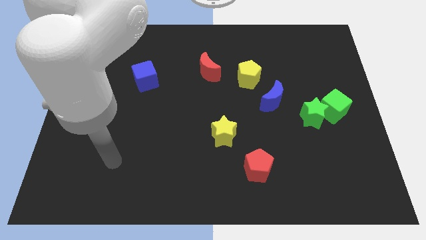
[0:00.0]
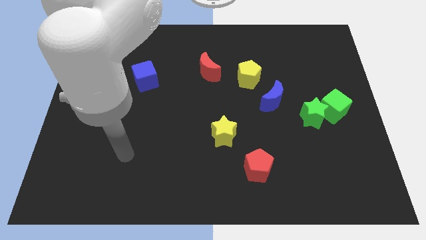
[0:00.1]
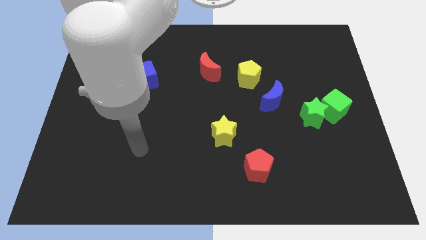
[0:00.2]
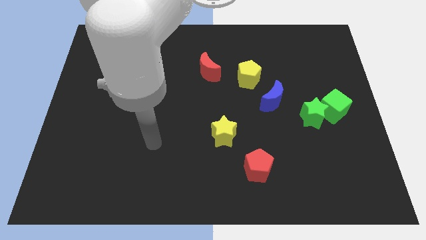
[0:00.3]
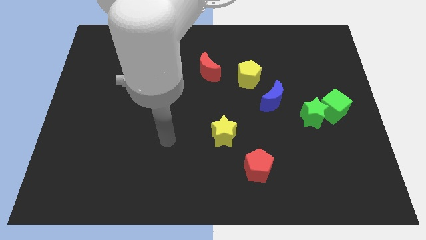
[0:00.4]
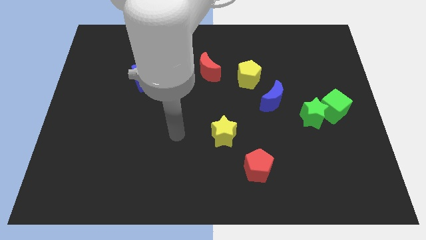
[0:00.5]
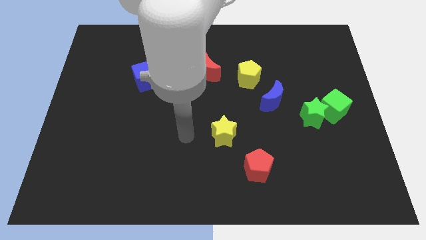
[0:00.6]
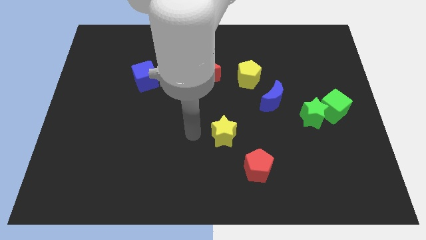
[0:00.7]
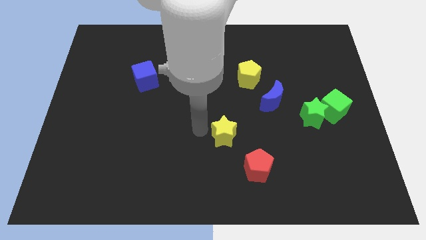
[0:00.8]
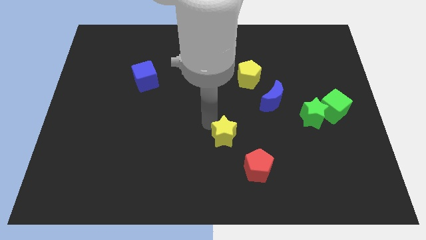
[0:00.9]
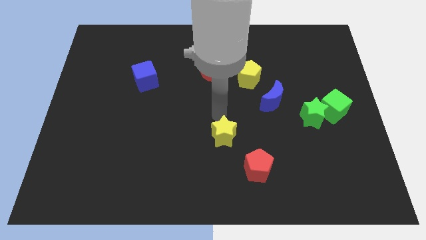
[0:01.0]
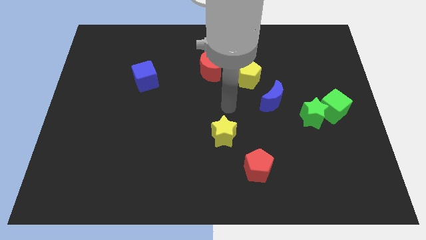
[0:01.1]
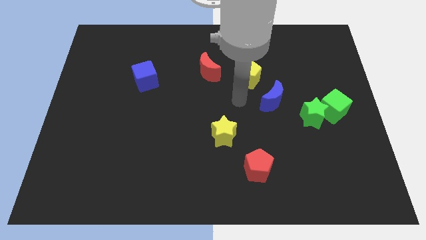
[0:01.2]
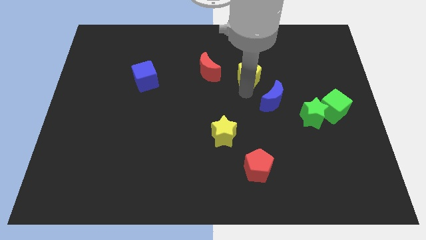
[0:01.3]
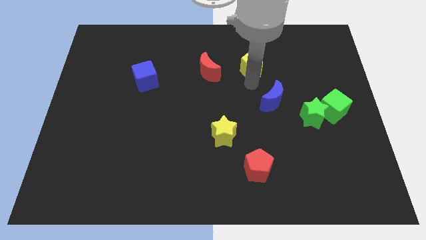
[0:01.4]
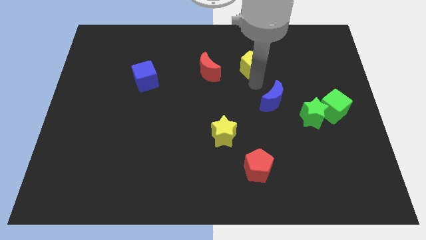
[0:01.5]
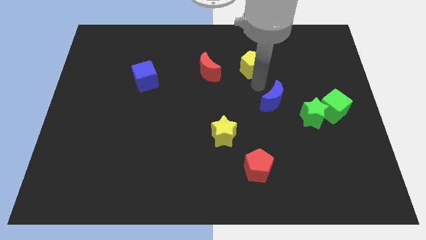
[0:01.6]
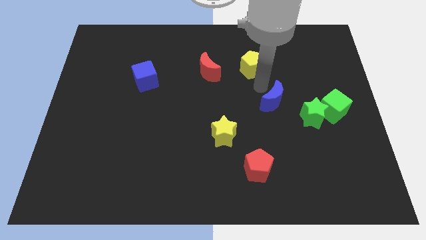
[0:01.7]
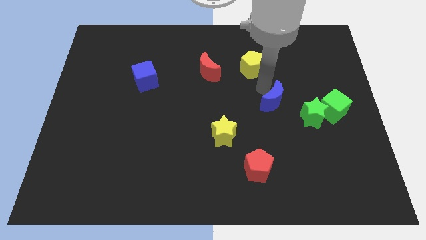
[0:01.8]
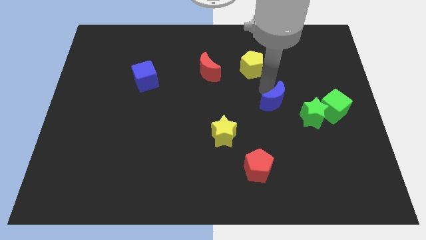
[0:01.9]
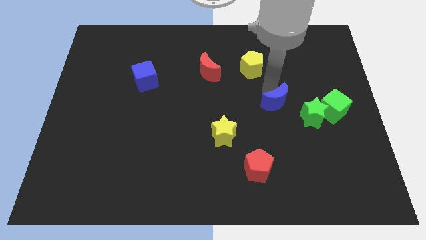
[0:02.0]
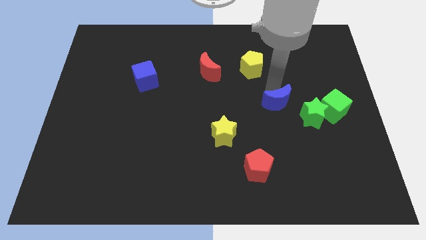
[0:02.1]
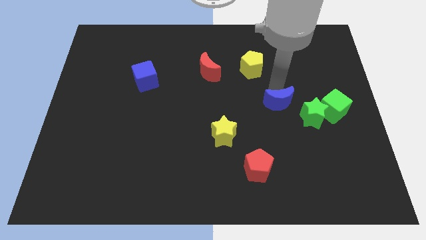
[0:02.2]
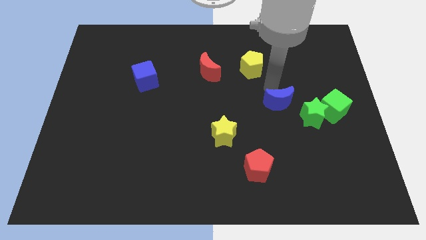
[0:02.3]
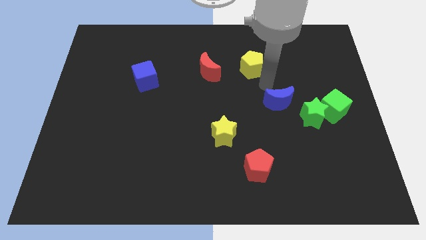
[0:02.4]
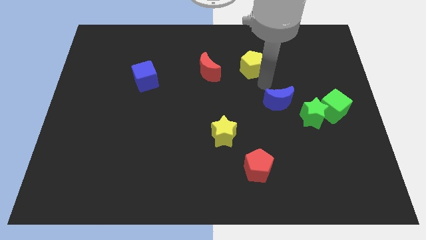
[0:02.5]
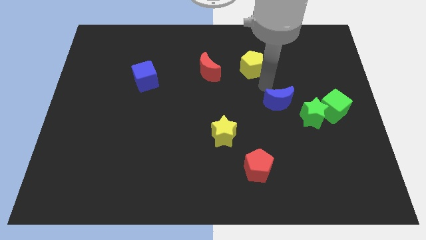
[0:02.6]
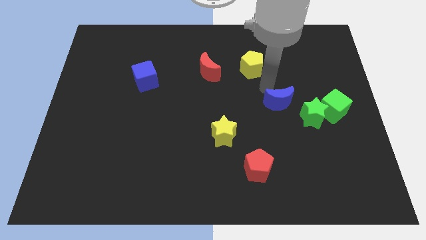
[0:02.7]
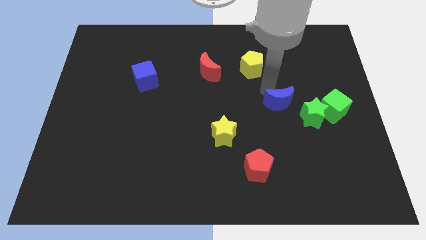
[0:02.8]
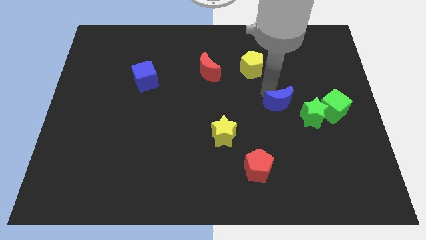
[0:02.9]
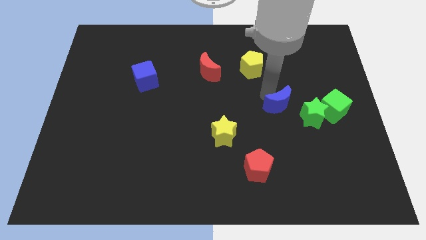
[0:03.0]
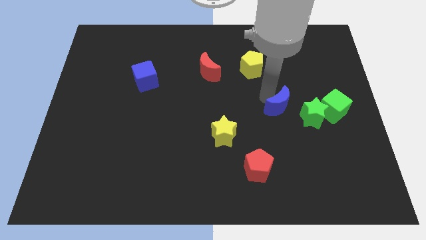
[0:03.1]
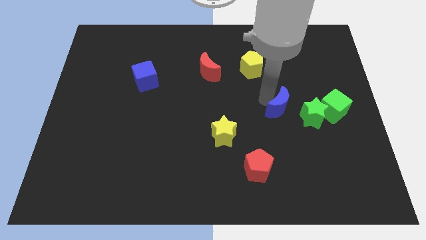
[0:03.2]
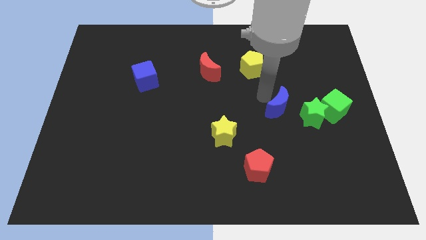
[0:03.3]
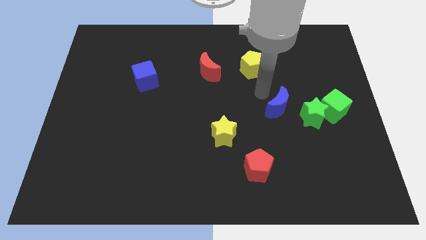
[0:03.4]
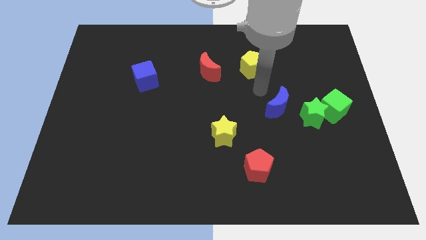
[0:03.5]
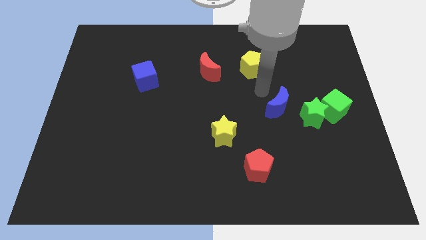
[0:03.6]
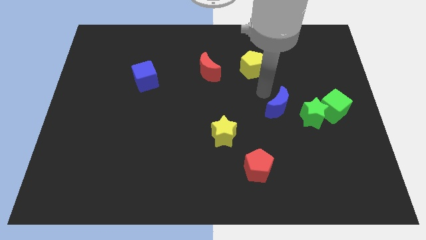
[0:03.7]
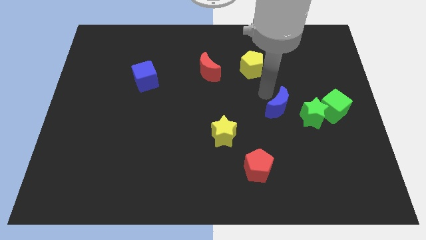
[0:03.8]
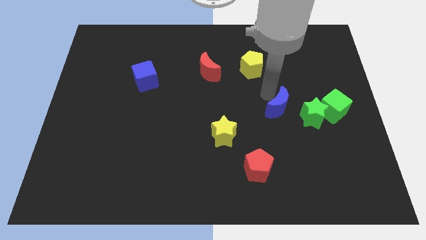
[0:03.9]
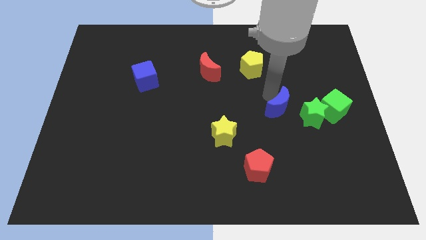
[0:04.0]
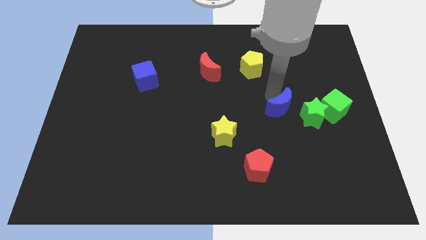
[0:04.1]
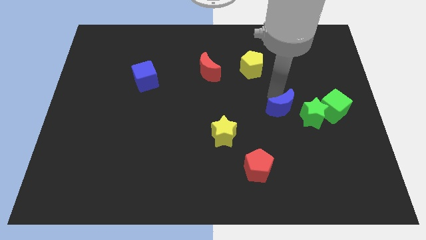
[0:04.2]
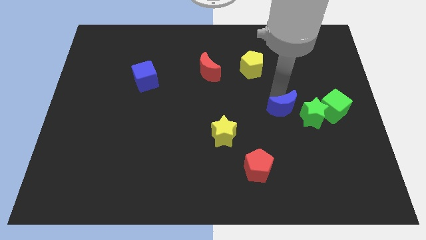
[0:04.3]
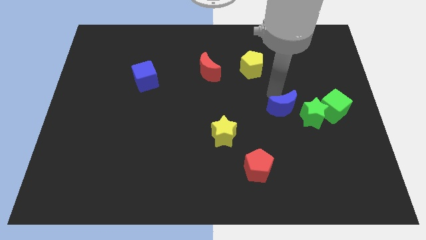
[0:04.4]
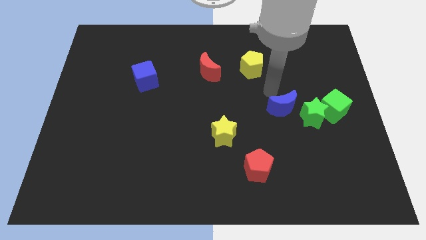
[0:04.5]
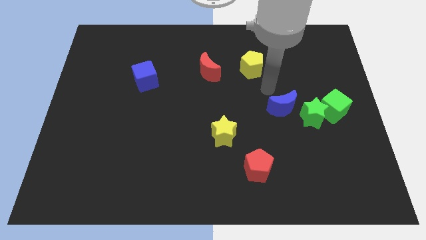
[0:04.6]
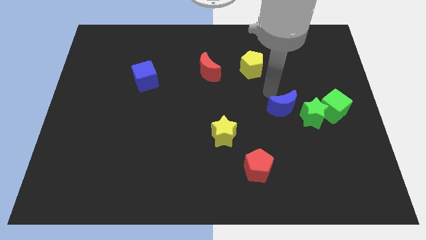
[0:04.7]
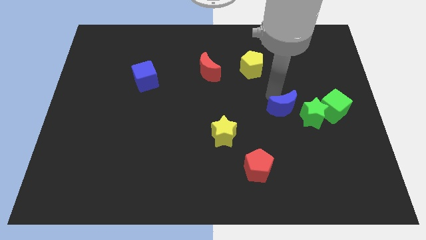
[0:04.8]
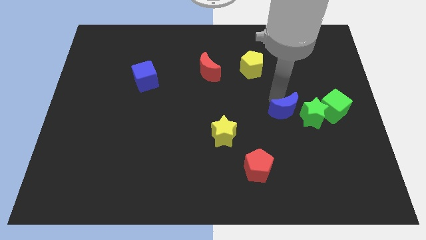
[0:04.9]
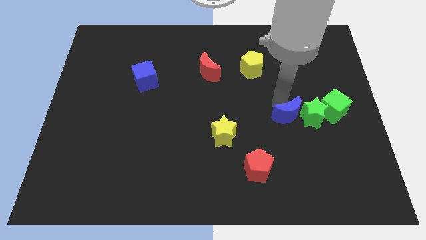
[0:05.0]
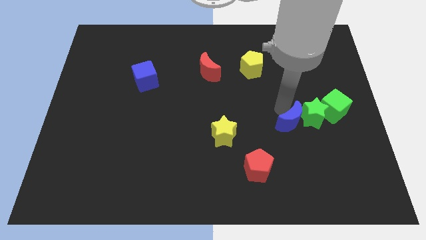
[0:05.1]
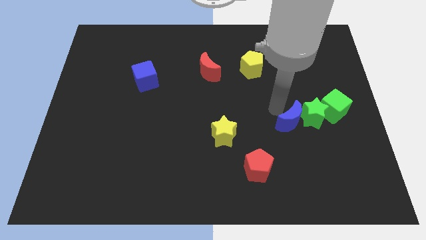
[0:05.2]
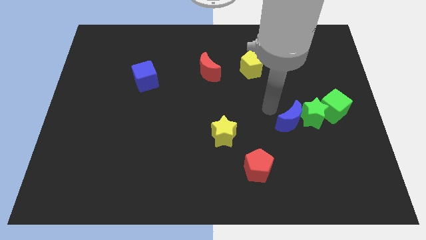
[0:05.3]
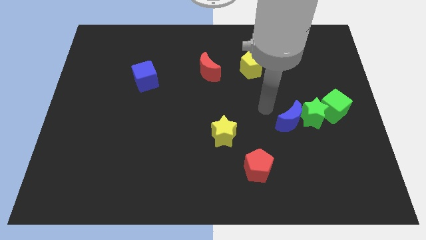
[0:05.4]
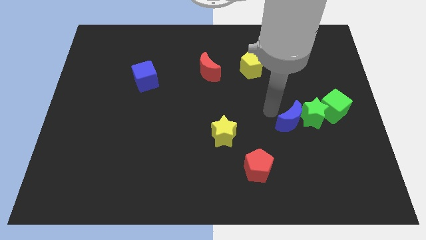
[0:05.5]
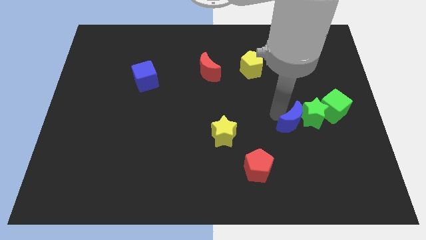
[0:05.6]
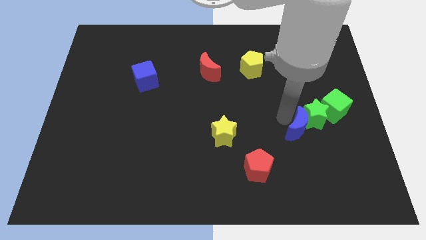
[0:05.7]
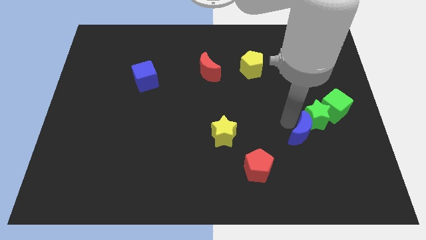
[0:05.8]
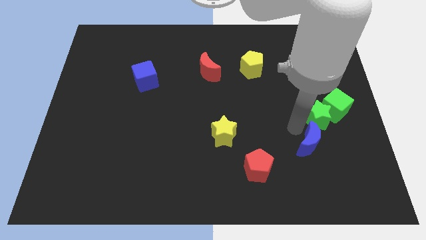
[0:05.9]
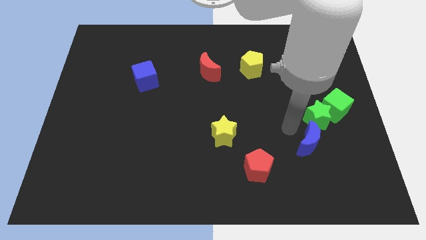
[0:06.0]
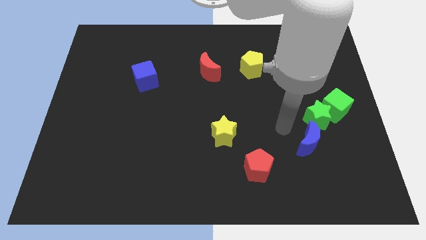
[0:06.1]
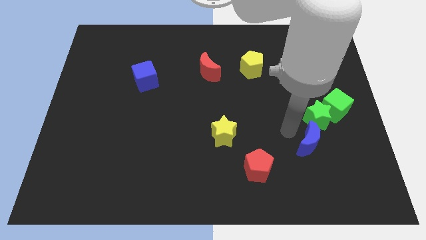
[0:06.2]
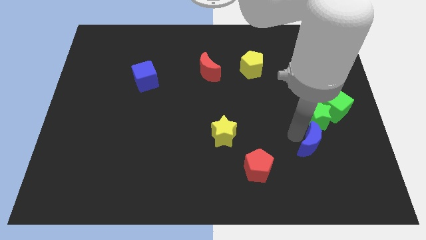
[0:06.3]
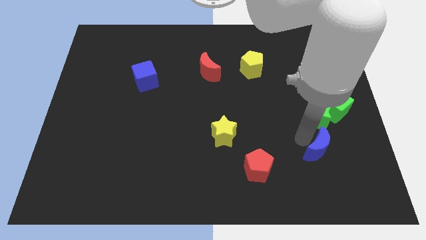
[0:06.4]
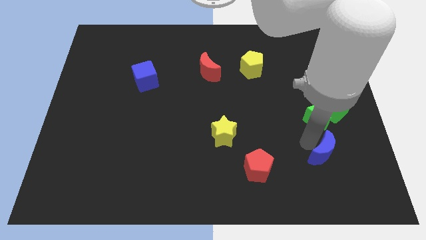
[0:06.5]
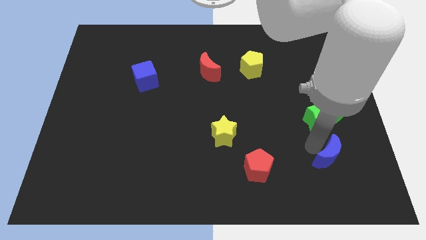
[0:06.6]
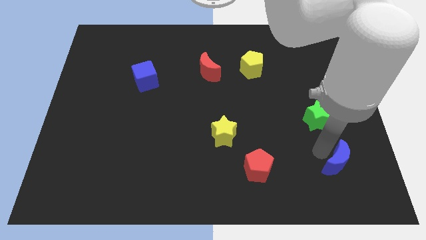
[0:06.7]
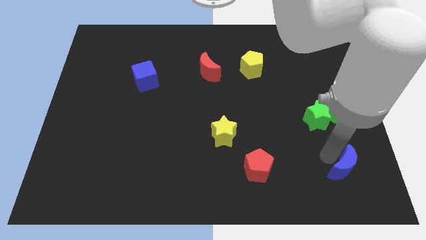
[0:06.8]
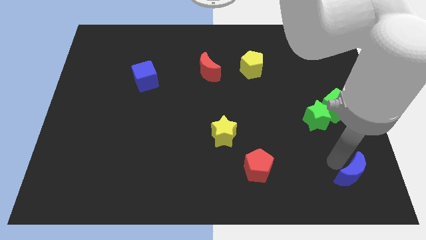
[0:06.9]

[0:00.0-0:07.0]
move the blue moon to the bottom right of the board

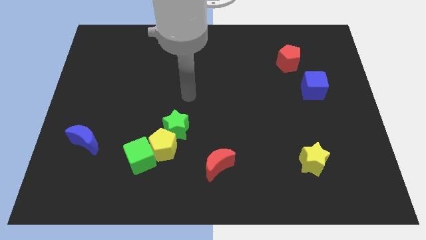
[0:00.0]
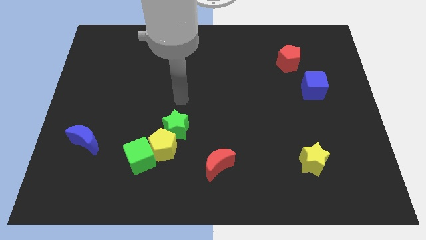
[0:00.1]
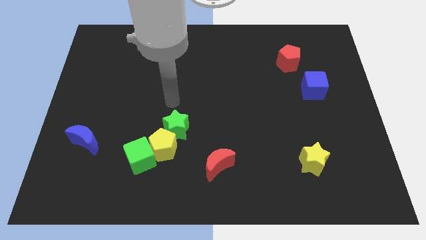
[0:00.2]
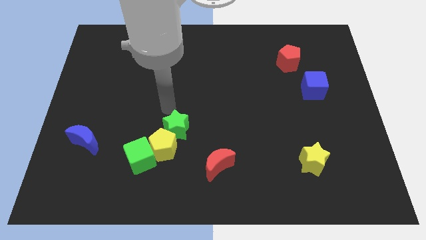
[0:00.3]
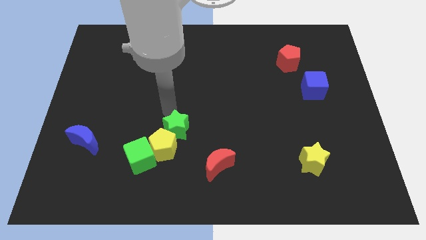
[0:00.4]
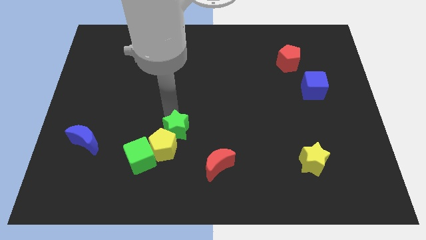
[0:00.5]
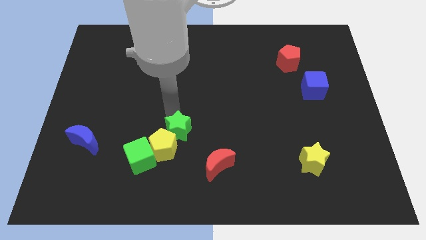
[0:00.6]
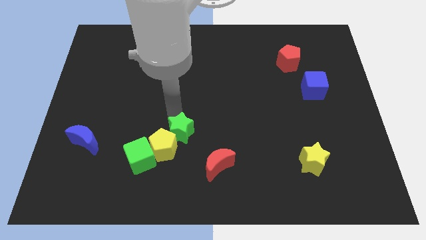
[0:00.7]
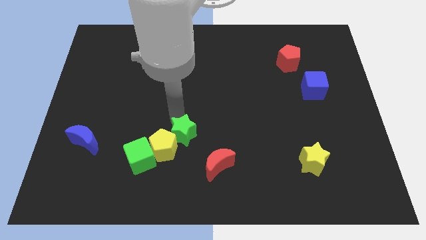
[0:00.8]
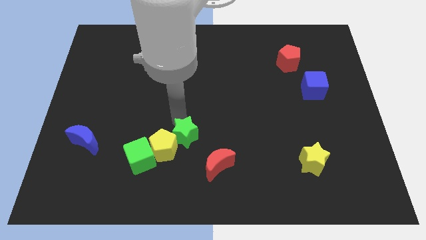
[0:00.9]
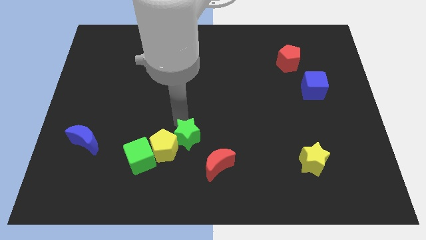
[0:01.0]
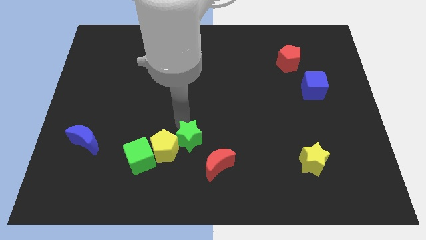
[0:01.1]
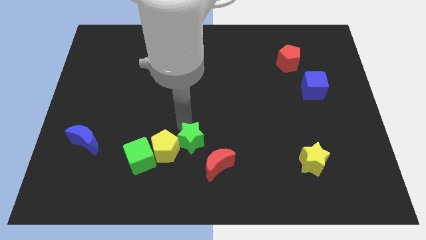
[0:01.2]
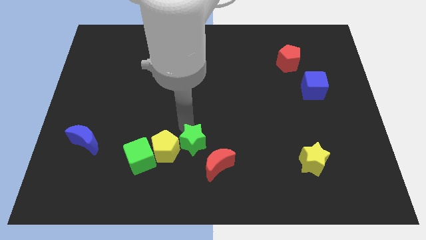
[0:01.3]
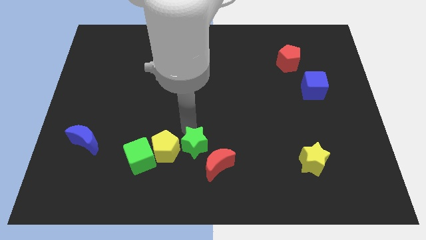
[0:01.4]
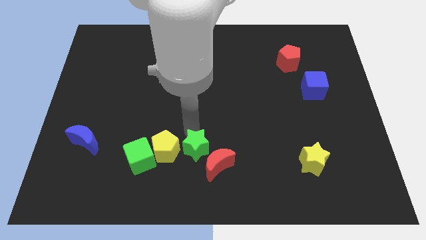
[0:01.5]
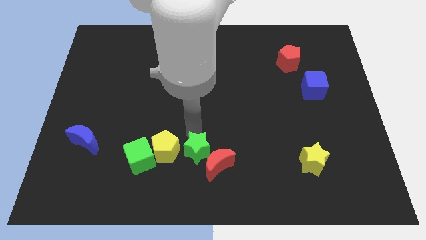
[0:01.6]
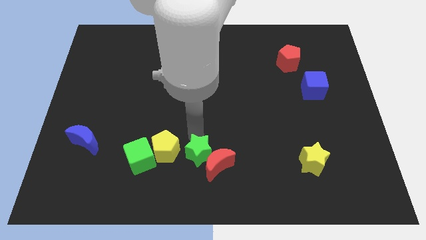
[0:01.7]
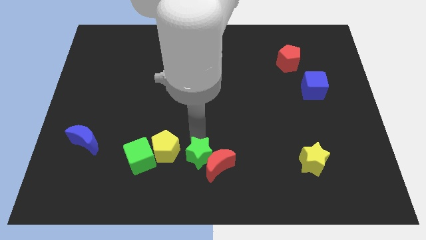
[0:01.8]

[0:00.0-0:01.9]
push the green star to the bottom side
